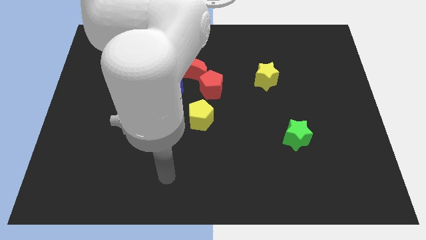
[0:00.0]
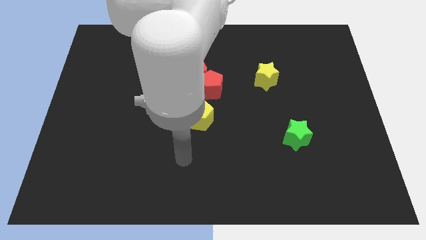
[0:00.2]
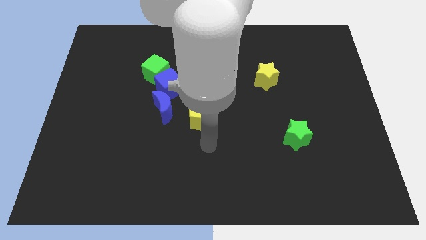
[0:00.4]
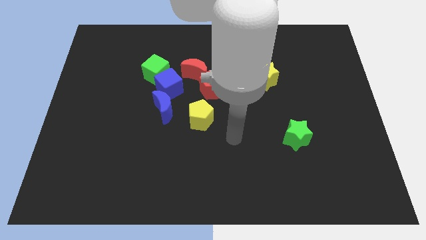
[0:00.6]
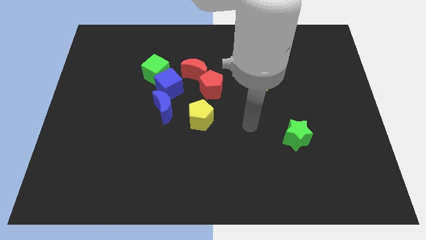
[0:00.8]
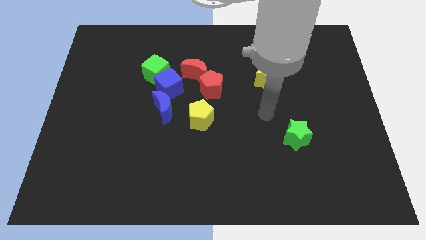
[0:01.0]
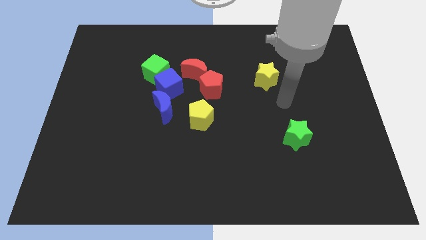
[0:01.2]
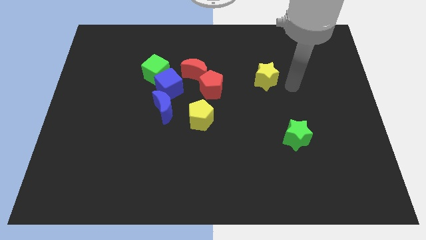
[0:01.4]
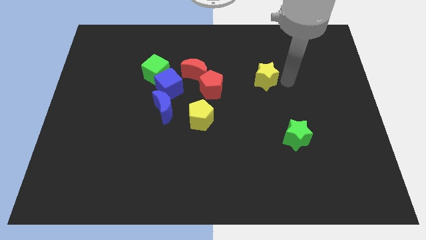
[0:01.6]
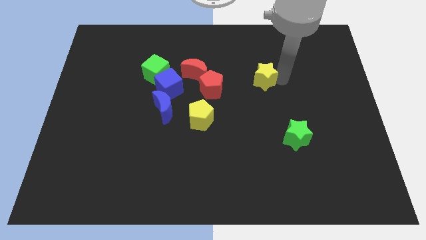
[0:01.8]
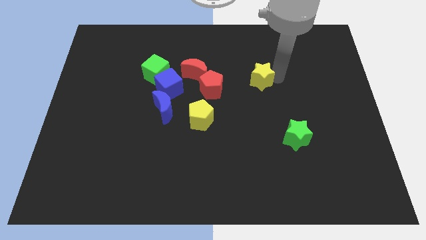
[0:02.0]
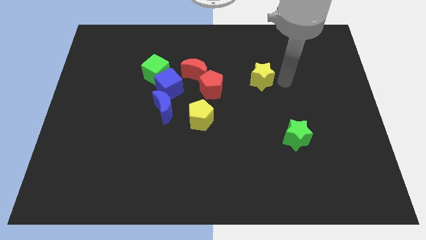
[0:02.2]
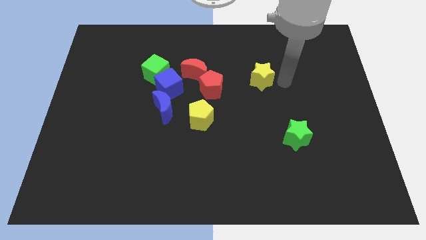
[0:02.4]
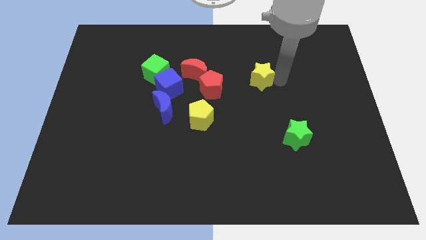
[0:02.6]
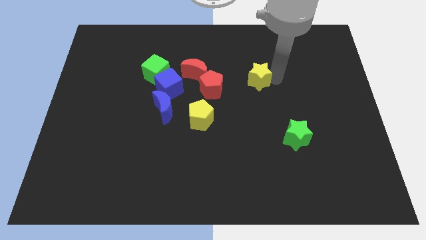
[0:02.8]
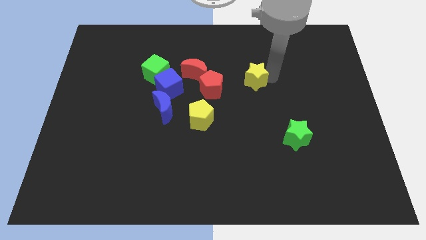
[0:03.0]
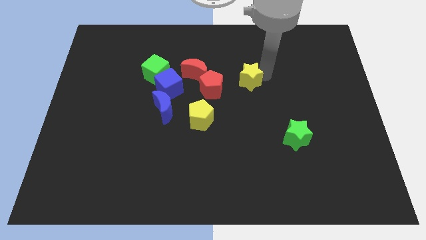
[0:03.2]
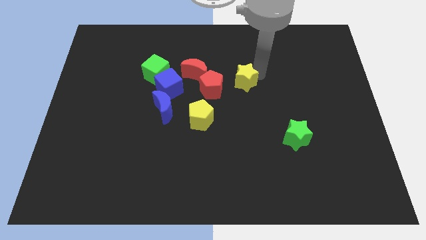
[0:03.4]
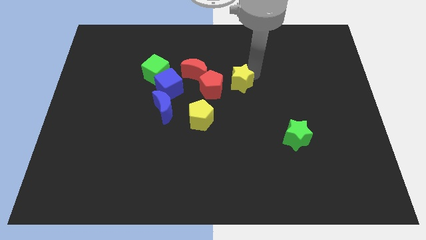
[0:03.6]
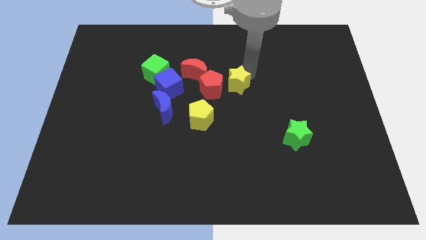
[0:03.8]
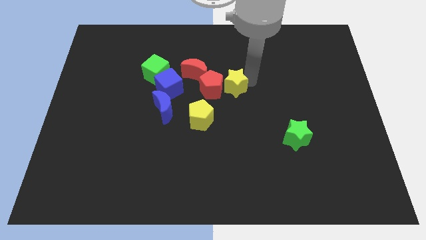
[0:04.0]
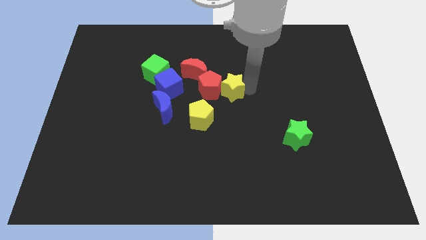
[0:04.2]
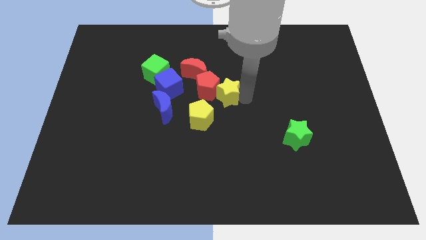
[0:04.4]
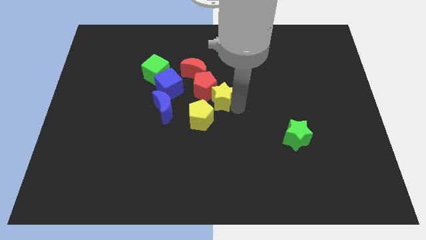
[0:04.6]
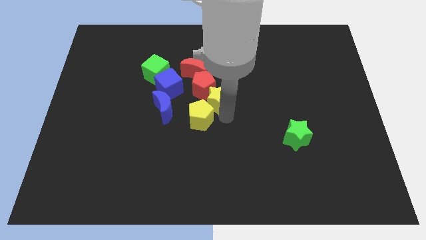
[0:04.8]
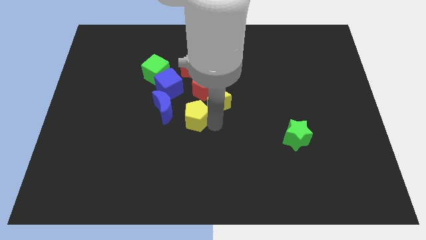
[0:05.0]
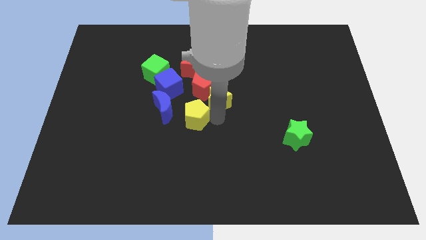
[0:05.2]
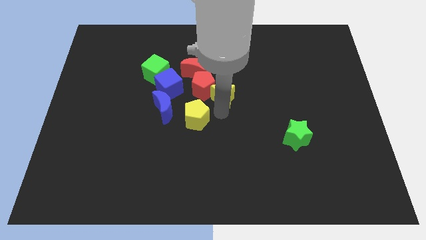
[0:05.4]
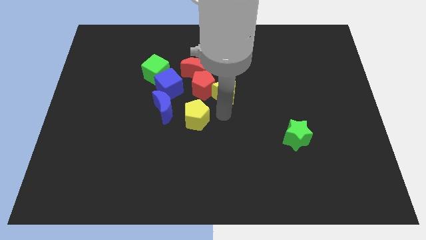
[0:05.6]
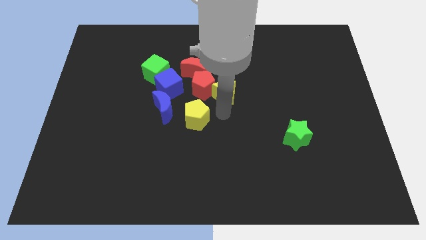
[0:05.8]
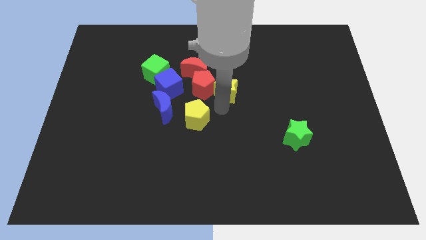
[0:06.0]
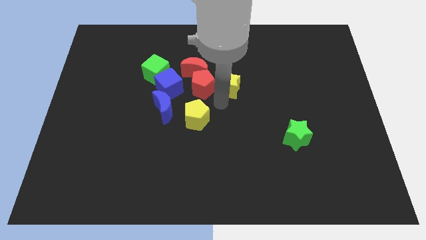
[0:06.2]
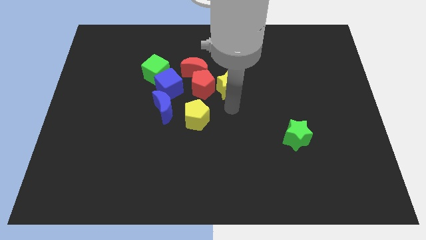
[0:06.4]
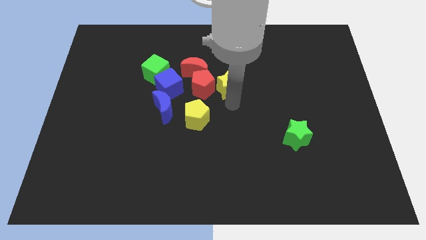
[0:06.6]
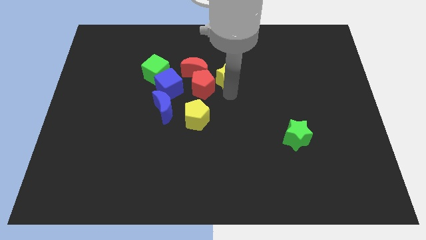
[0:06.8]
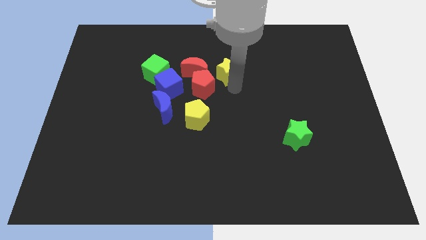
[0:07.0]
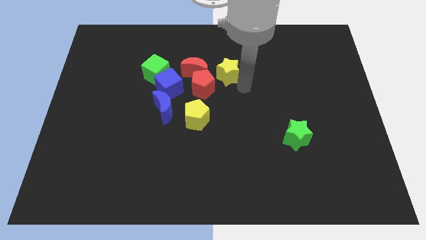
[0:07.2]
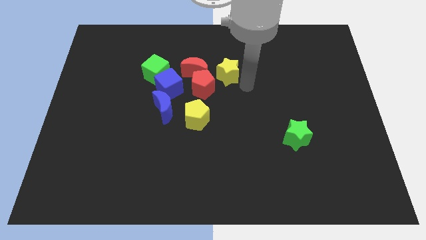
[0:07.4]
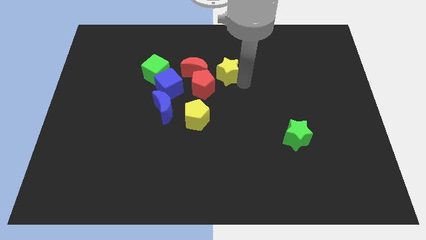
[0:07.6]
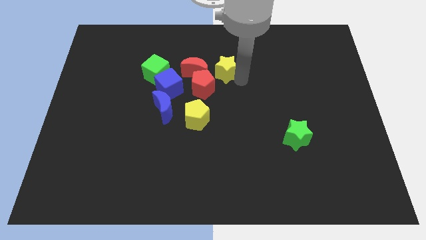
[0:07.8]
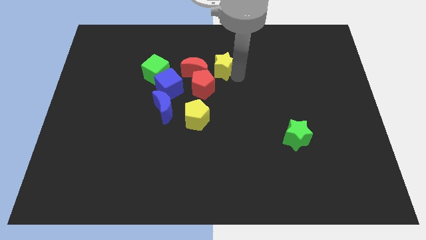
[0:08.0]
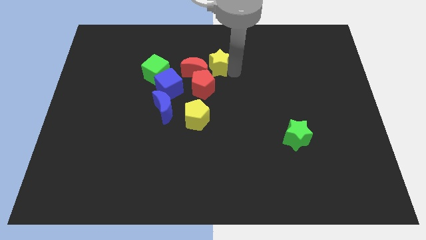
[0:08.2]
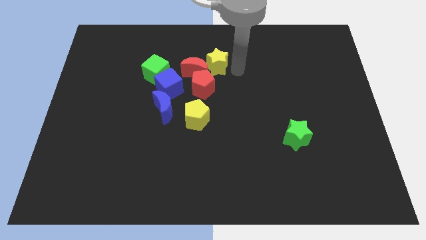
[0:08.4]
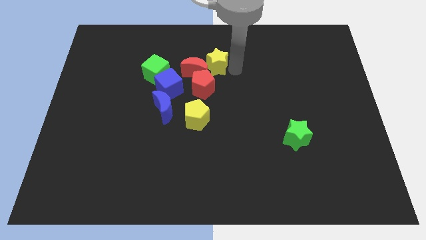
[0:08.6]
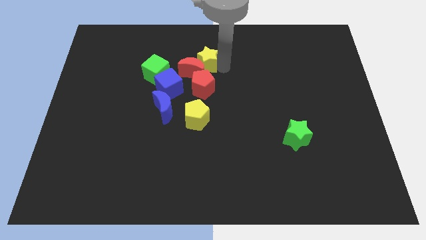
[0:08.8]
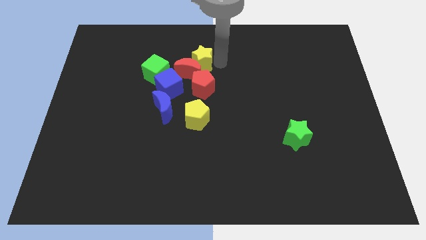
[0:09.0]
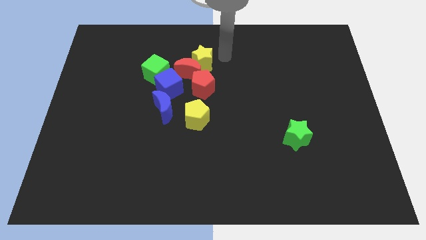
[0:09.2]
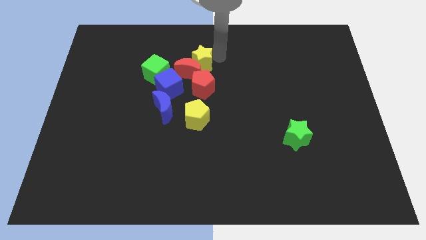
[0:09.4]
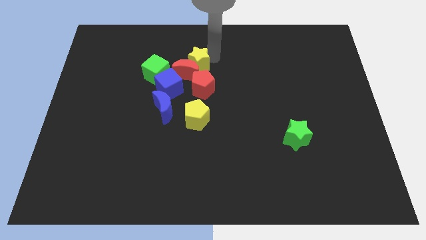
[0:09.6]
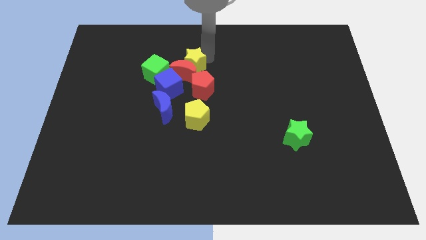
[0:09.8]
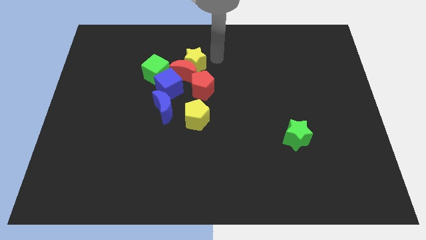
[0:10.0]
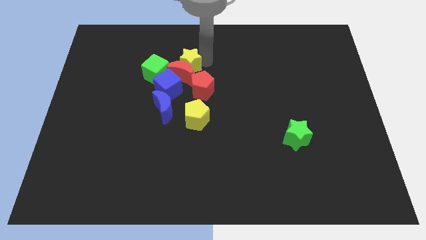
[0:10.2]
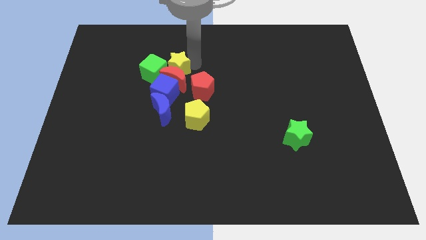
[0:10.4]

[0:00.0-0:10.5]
push the yellow star next to the green cube

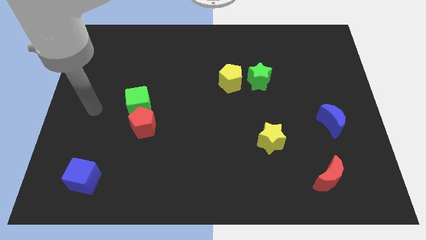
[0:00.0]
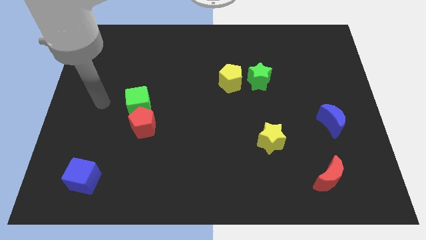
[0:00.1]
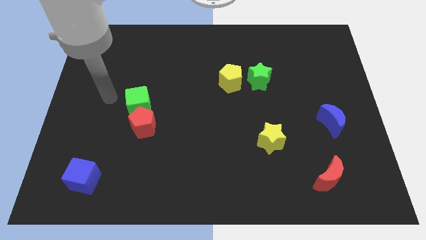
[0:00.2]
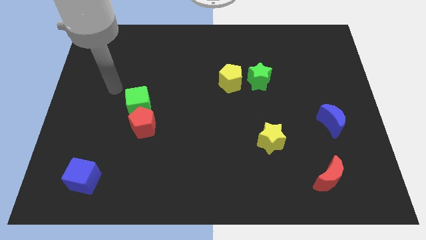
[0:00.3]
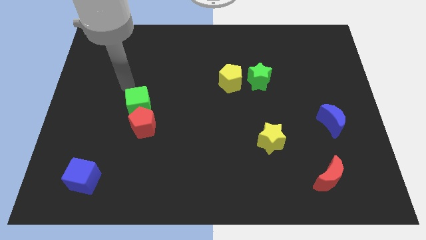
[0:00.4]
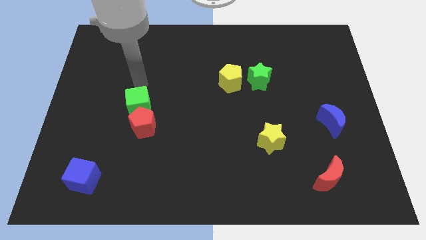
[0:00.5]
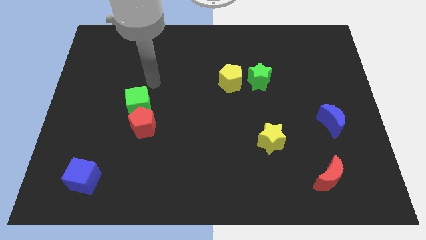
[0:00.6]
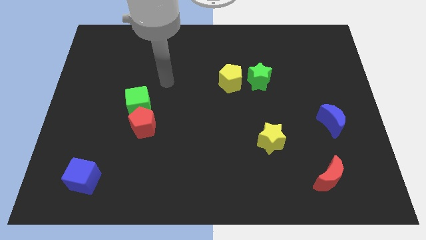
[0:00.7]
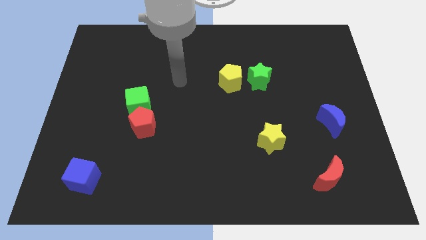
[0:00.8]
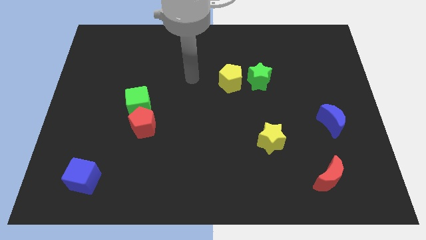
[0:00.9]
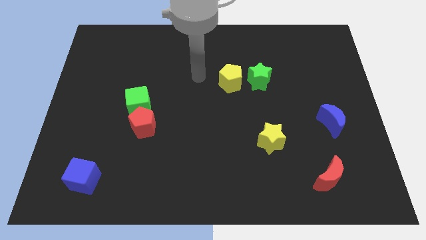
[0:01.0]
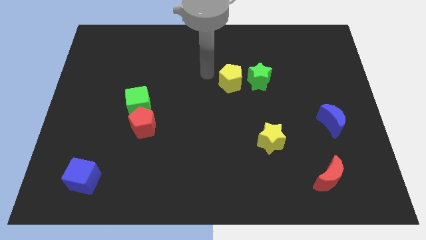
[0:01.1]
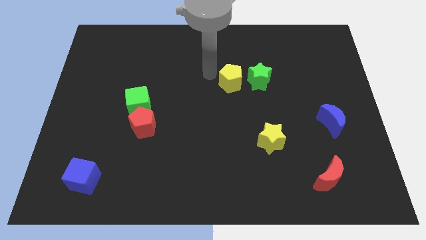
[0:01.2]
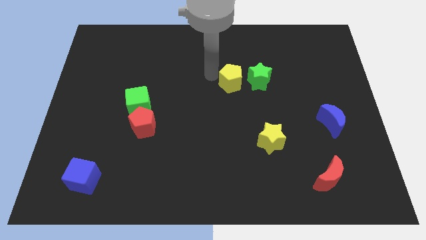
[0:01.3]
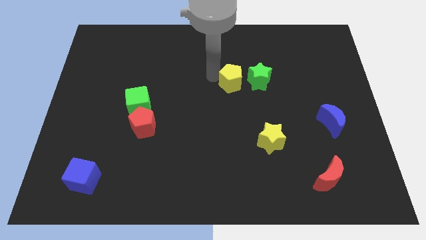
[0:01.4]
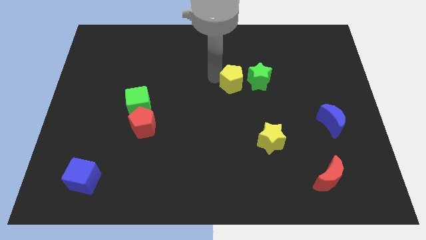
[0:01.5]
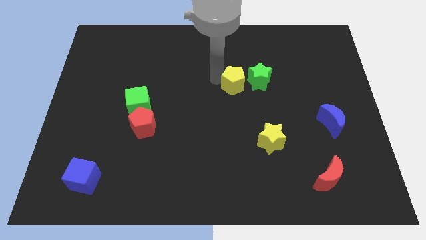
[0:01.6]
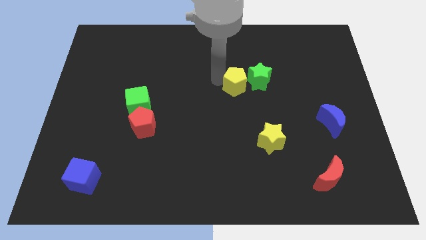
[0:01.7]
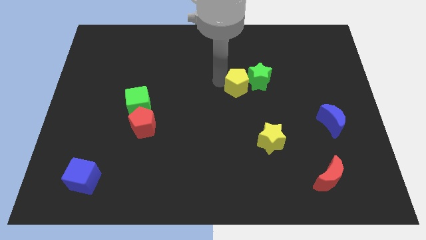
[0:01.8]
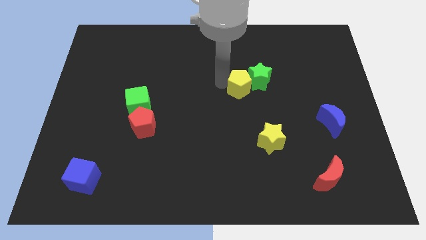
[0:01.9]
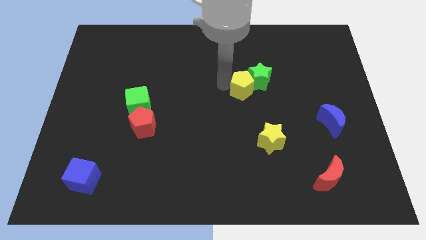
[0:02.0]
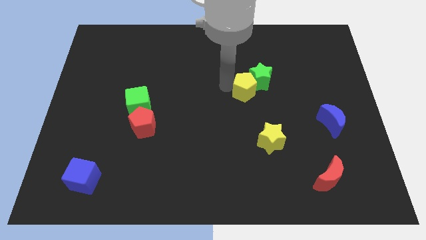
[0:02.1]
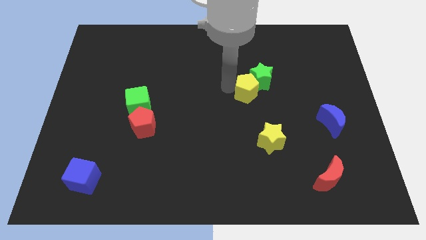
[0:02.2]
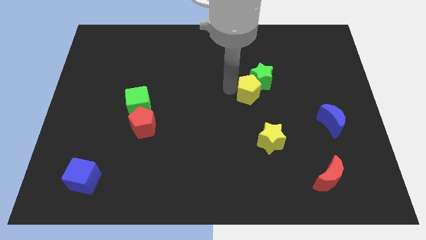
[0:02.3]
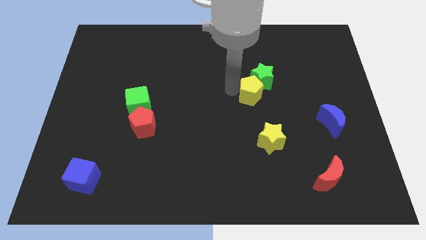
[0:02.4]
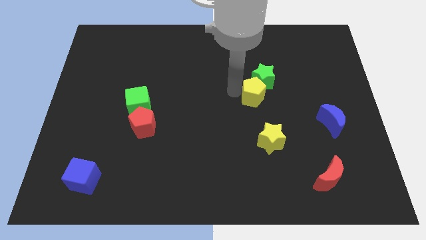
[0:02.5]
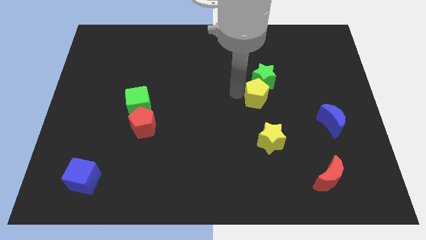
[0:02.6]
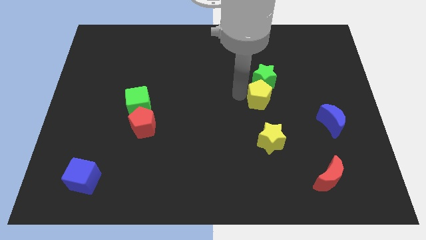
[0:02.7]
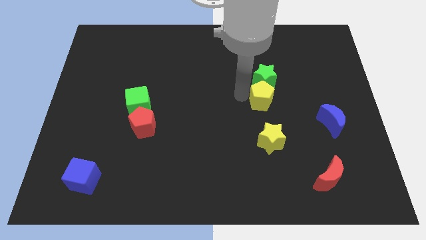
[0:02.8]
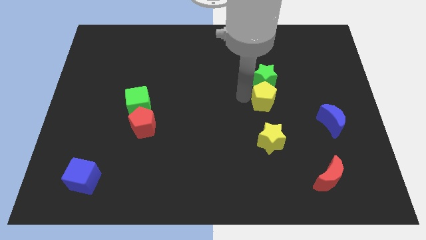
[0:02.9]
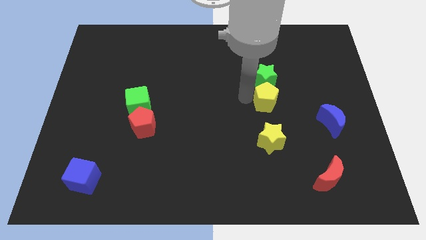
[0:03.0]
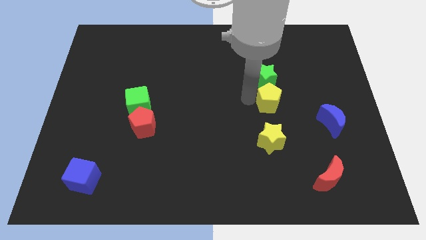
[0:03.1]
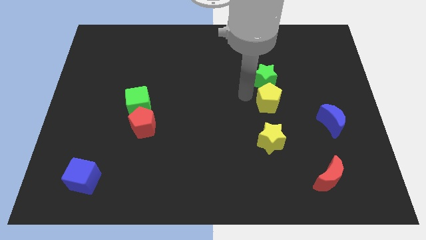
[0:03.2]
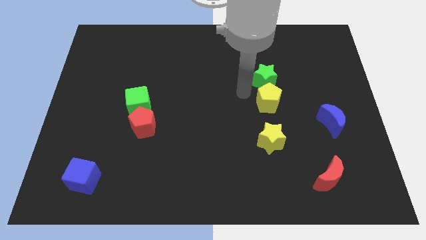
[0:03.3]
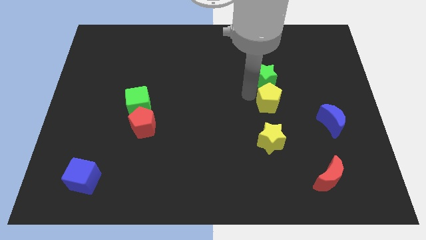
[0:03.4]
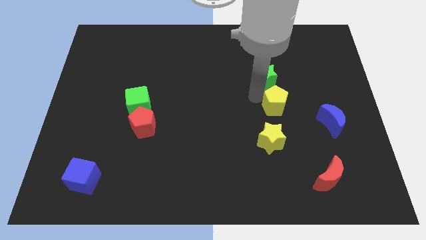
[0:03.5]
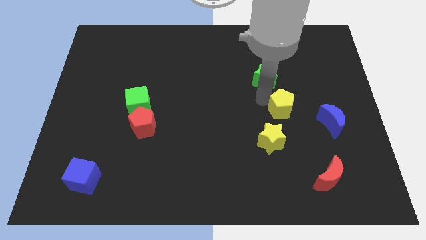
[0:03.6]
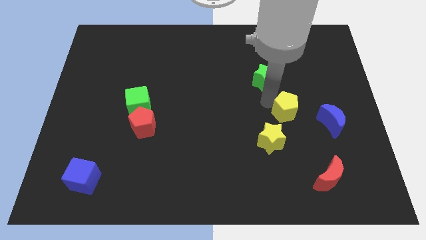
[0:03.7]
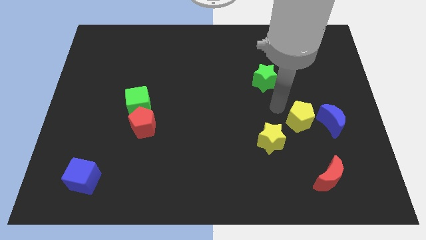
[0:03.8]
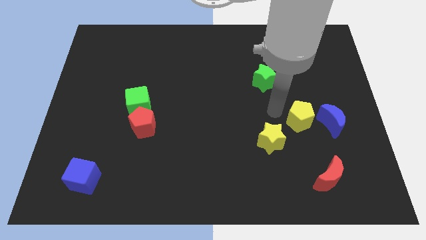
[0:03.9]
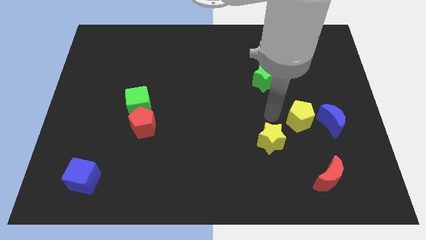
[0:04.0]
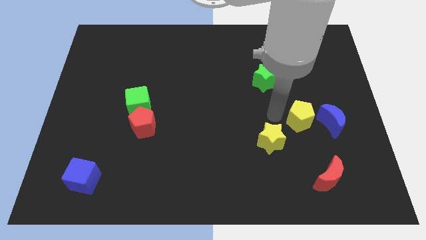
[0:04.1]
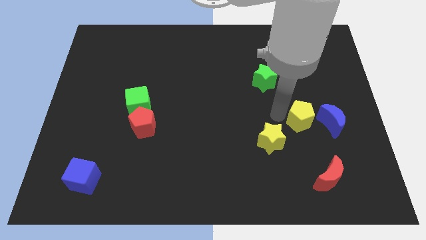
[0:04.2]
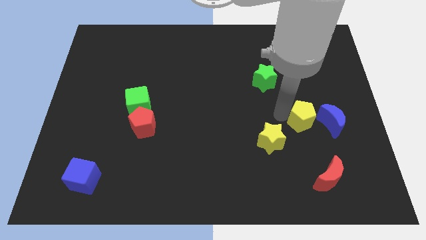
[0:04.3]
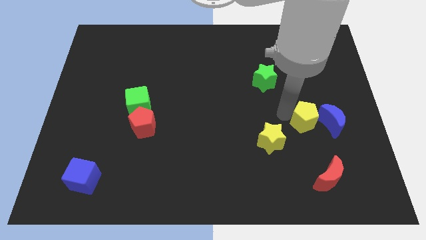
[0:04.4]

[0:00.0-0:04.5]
push the yellow pentagon to the blue moon
